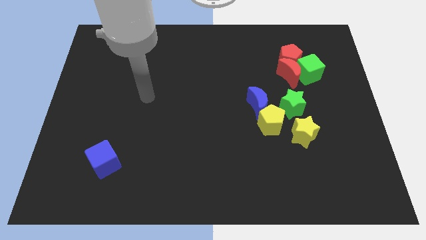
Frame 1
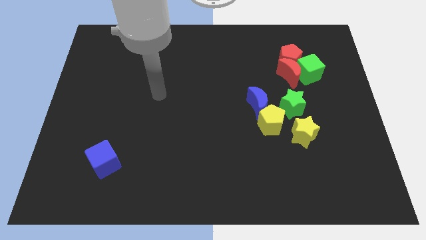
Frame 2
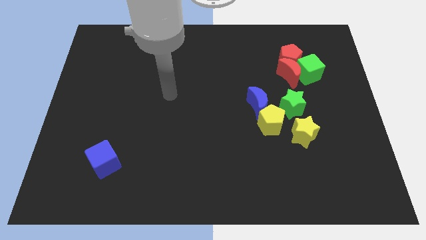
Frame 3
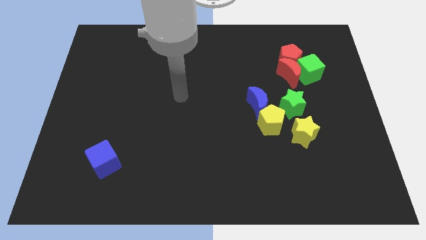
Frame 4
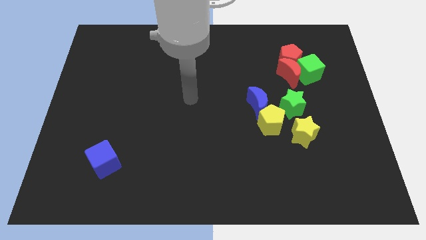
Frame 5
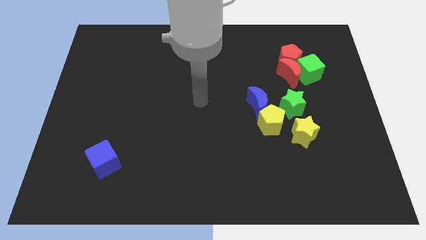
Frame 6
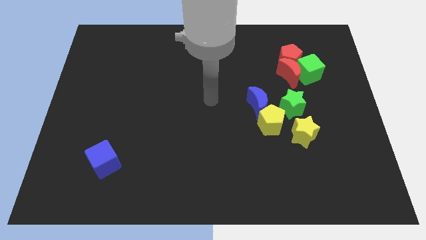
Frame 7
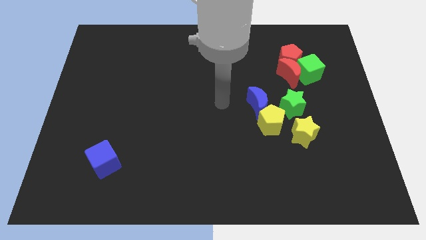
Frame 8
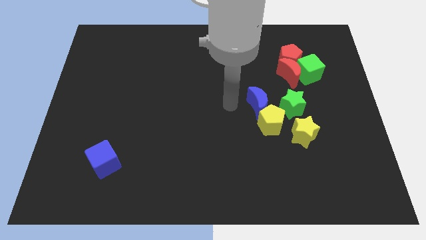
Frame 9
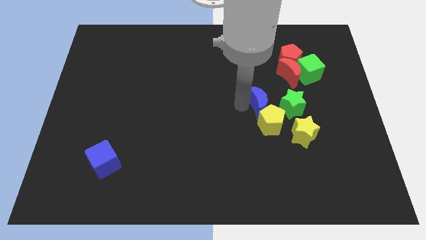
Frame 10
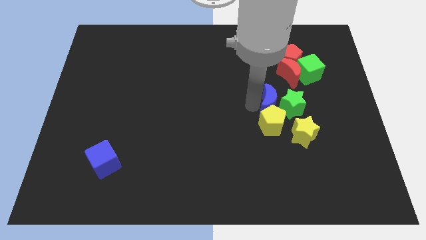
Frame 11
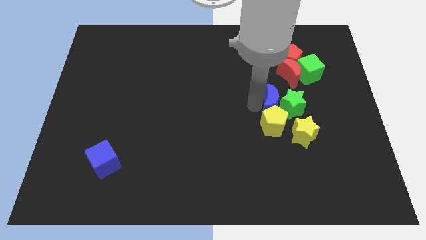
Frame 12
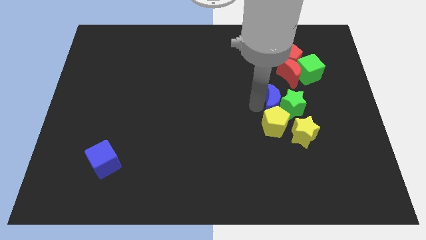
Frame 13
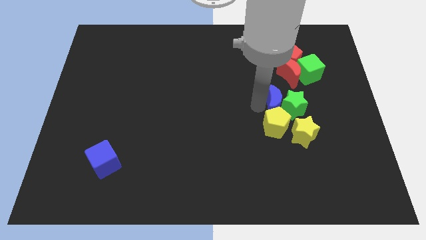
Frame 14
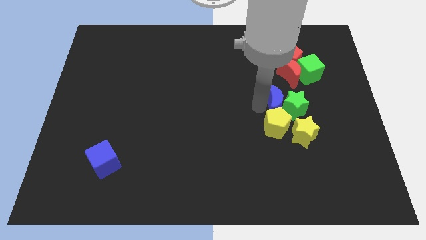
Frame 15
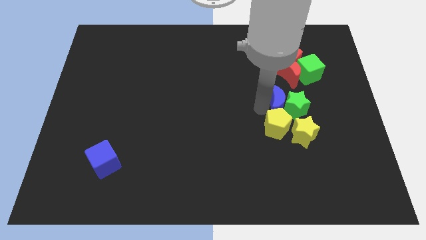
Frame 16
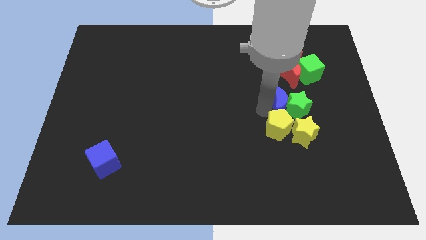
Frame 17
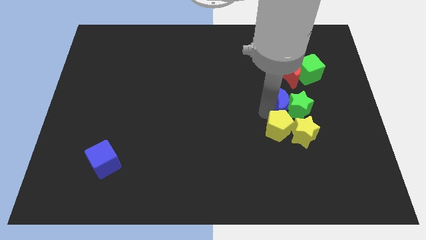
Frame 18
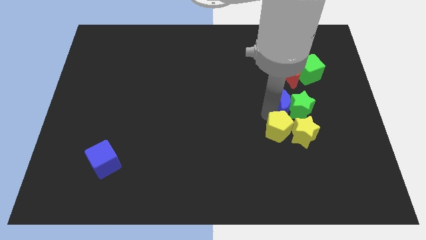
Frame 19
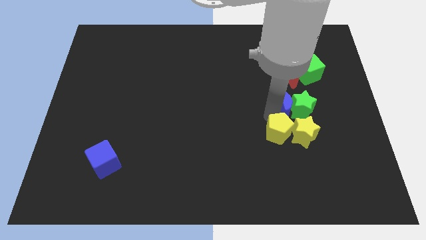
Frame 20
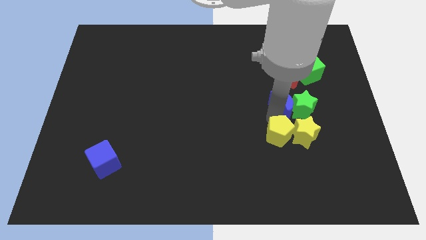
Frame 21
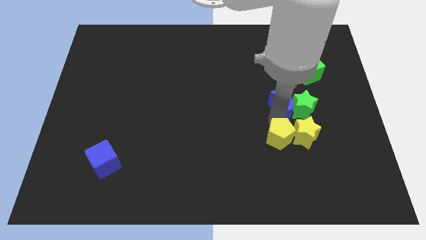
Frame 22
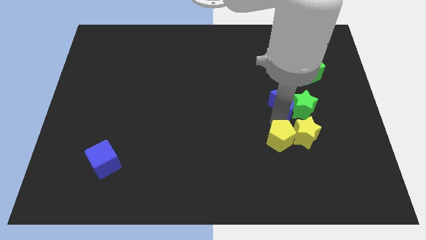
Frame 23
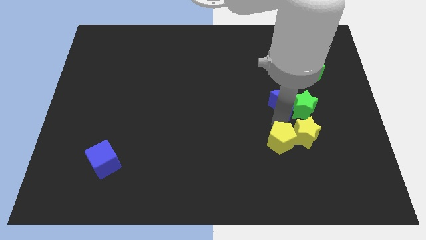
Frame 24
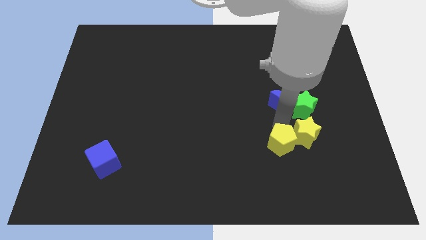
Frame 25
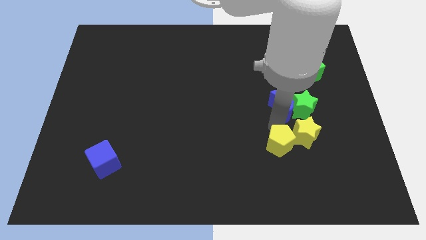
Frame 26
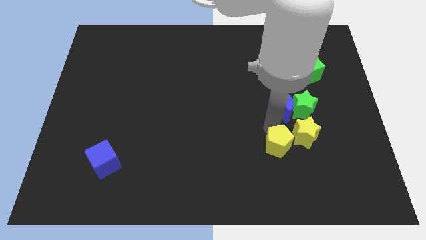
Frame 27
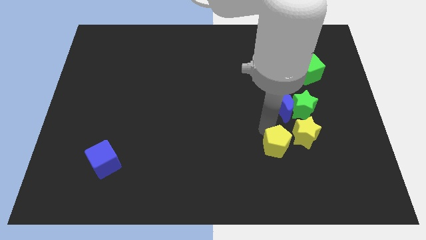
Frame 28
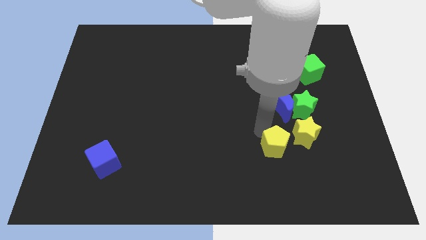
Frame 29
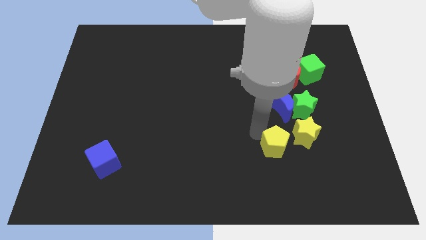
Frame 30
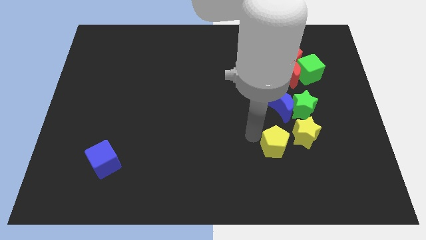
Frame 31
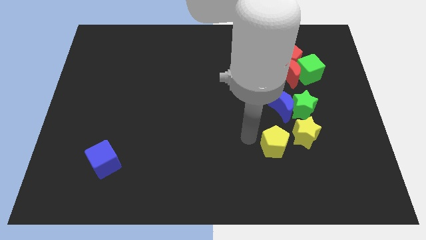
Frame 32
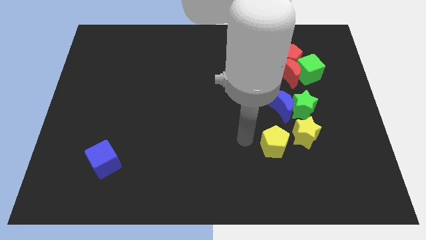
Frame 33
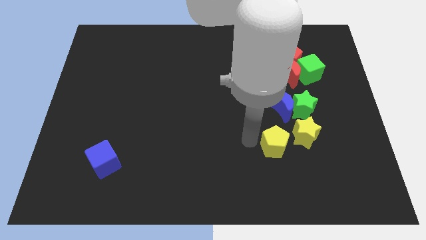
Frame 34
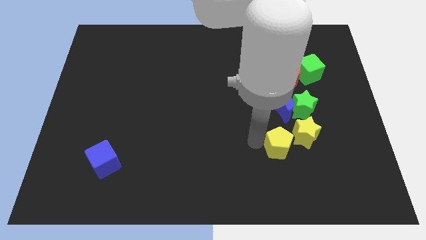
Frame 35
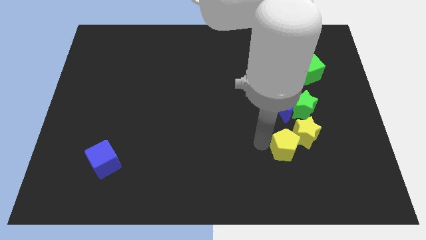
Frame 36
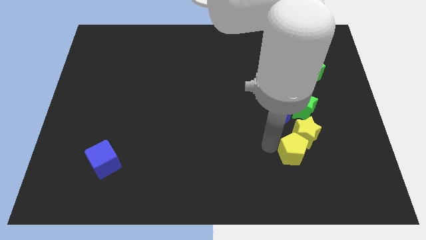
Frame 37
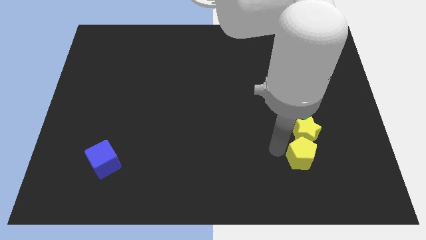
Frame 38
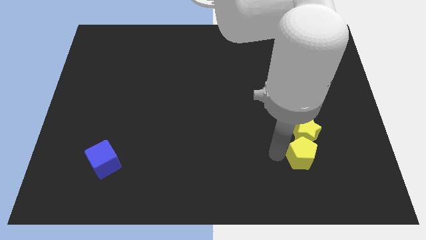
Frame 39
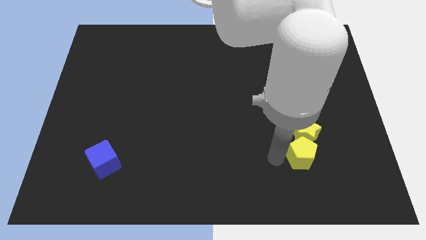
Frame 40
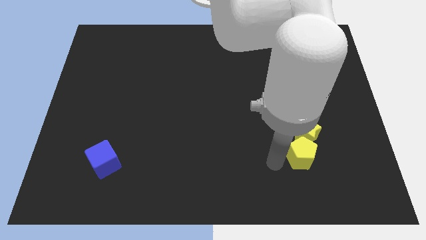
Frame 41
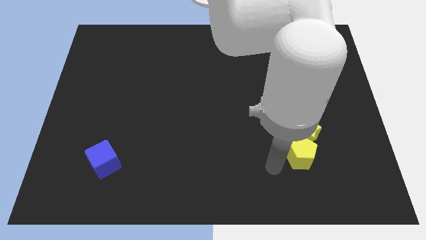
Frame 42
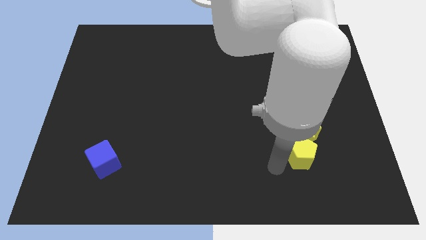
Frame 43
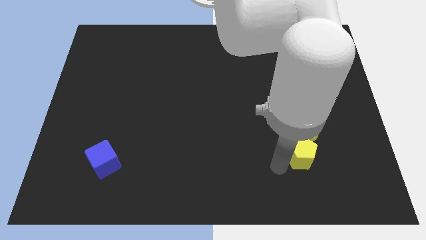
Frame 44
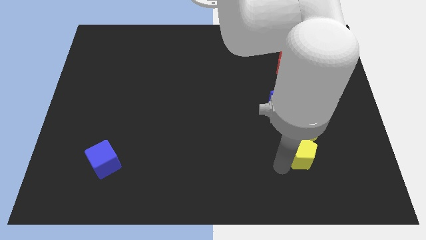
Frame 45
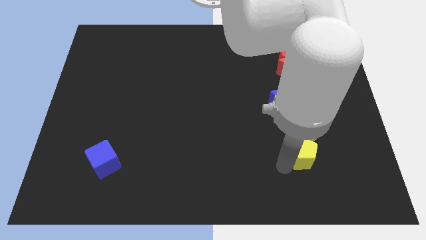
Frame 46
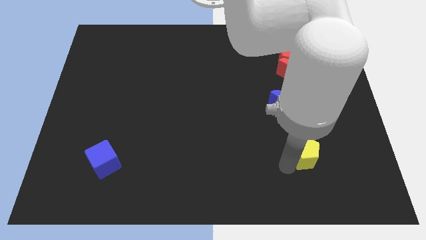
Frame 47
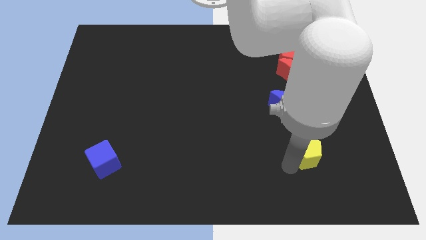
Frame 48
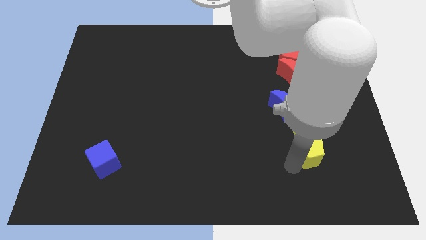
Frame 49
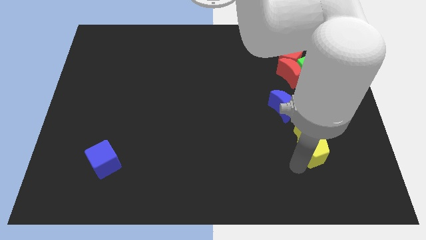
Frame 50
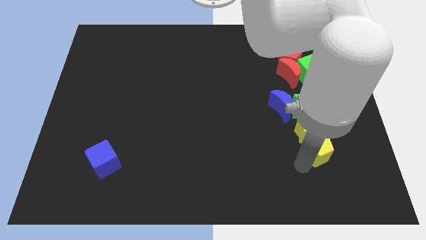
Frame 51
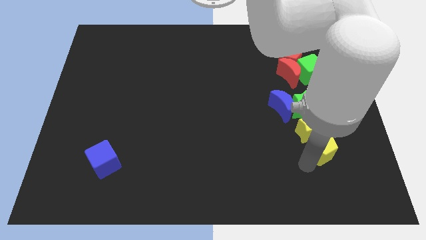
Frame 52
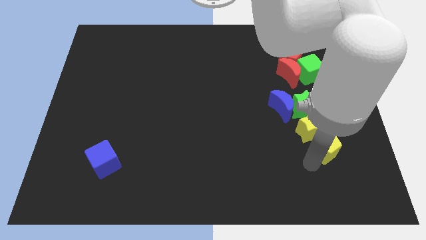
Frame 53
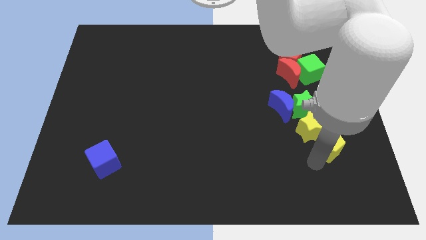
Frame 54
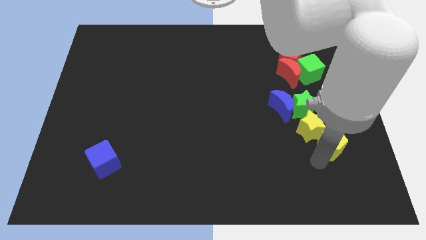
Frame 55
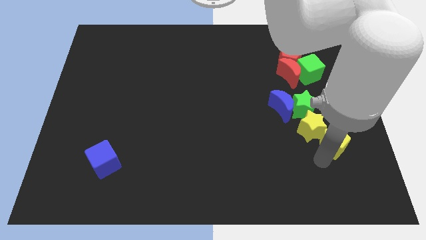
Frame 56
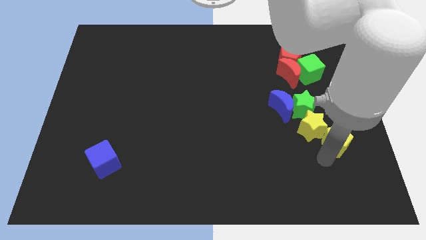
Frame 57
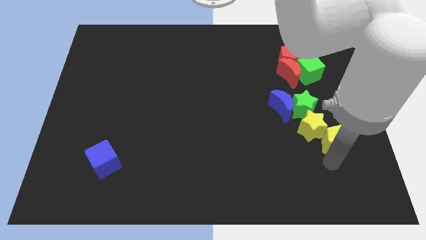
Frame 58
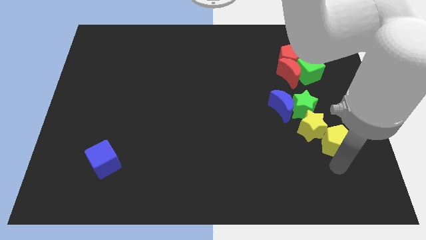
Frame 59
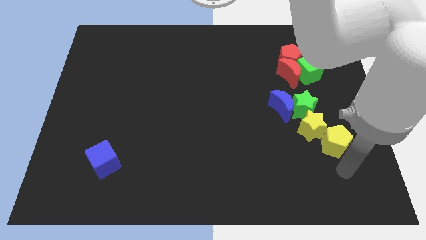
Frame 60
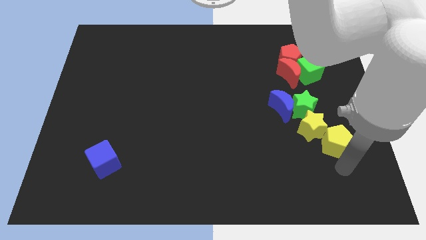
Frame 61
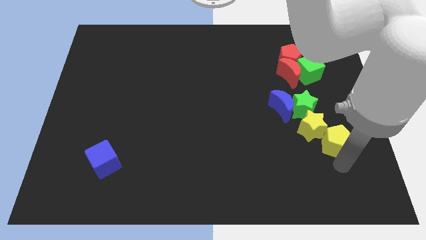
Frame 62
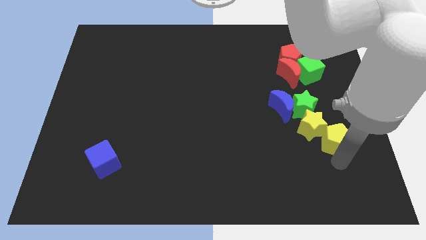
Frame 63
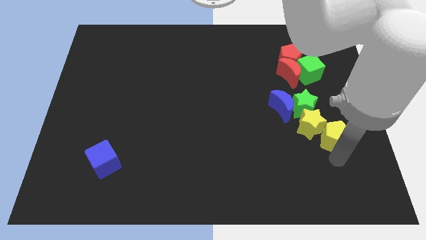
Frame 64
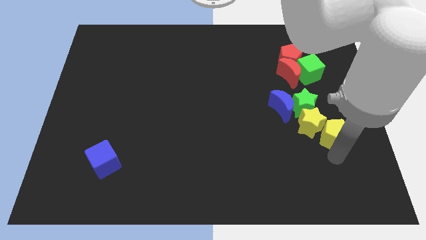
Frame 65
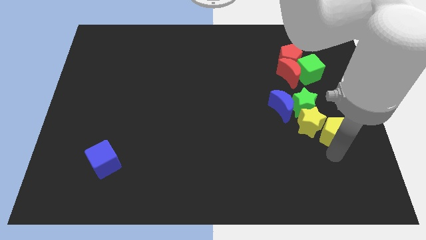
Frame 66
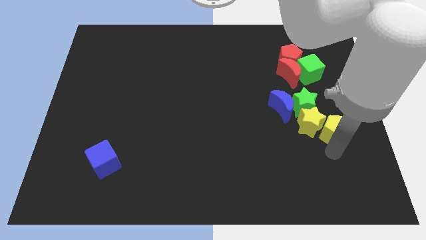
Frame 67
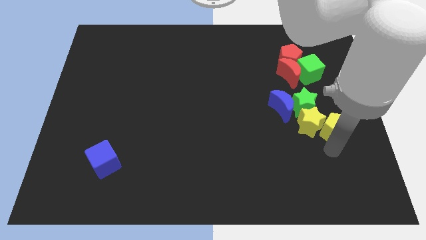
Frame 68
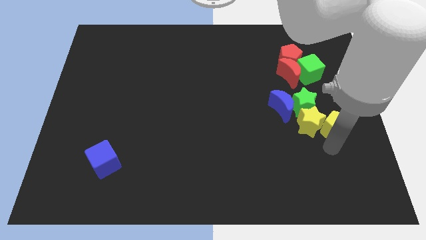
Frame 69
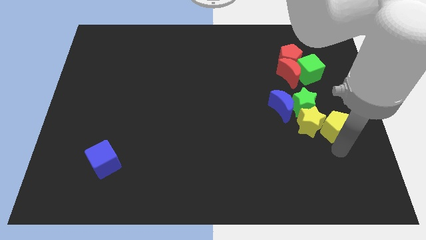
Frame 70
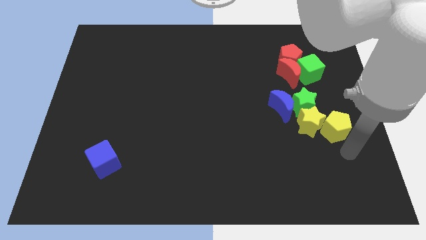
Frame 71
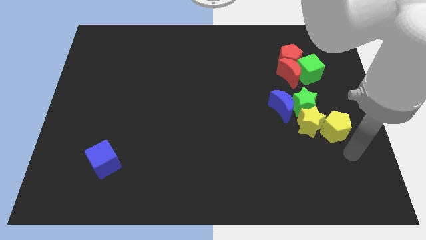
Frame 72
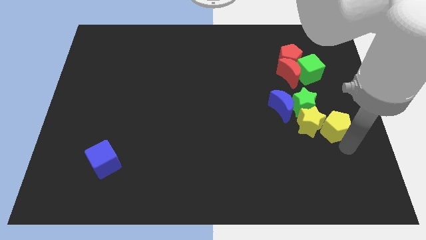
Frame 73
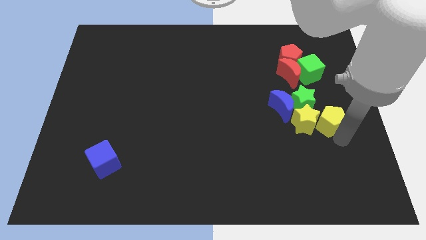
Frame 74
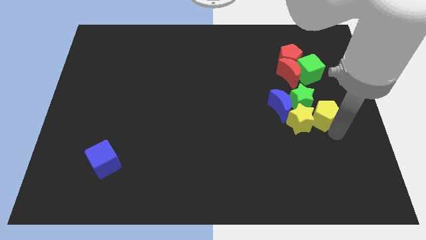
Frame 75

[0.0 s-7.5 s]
slide the yellow pentagon to the bottom of the green cube
